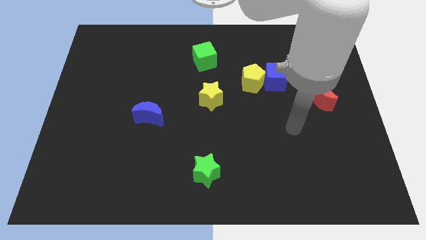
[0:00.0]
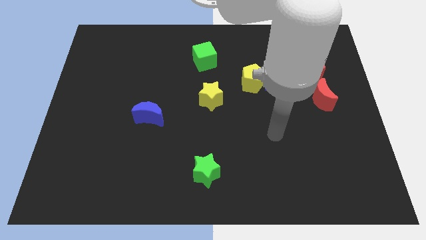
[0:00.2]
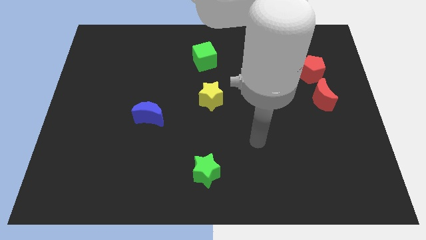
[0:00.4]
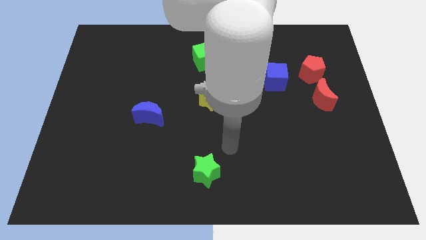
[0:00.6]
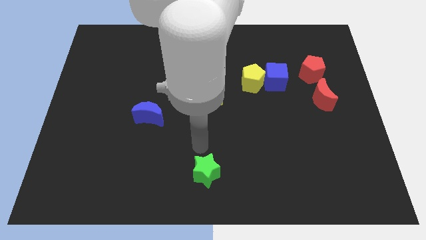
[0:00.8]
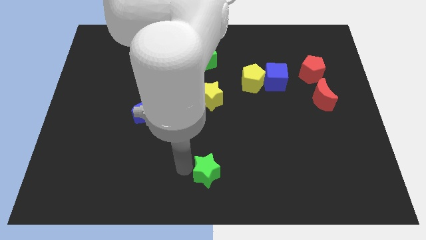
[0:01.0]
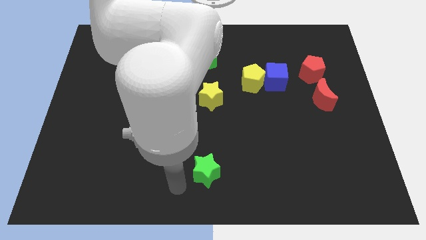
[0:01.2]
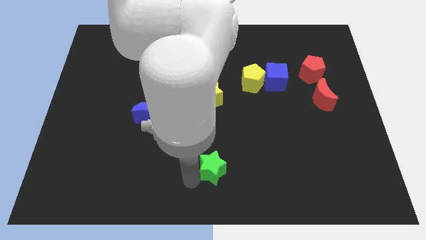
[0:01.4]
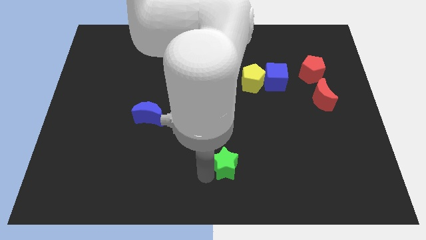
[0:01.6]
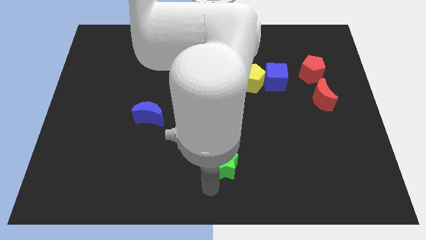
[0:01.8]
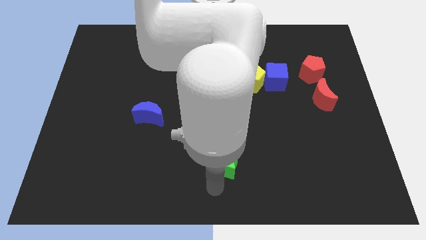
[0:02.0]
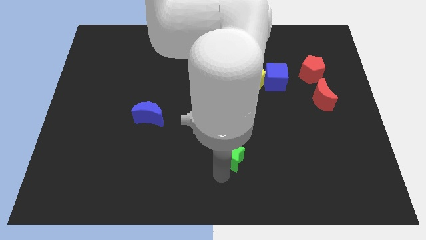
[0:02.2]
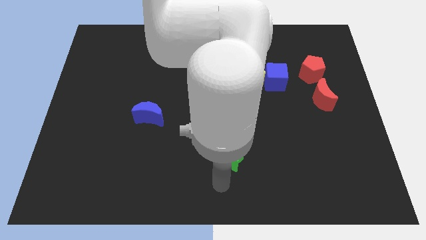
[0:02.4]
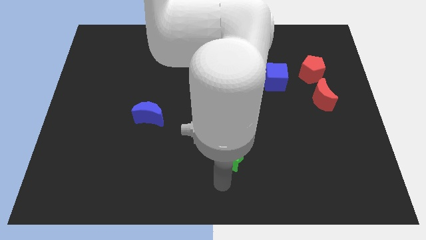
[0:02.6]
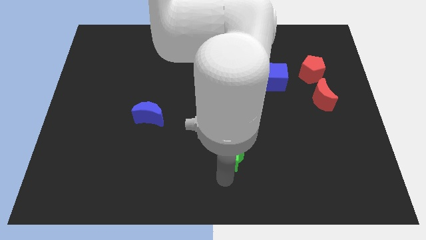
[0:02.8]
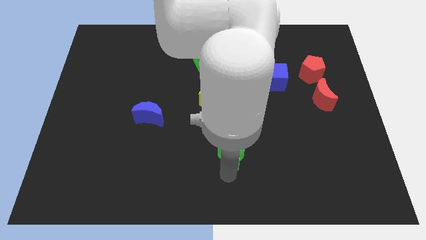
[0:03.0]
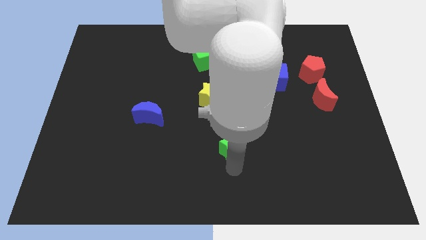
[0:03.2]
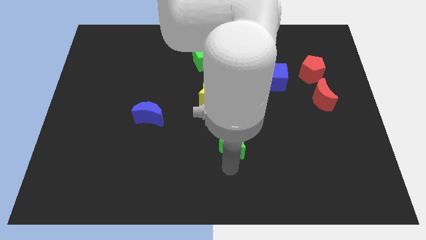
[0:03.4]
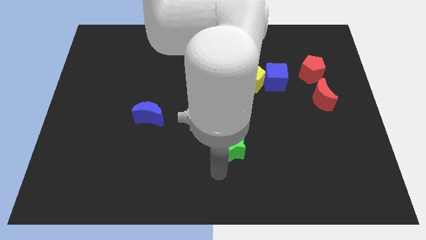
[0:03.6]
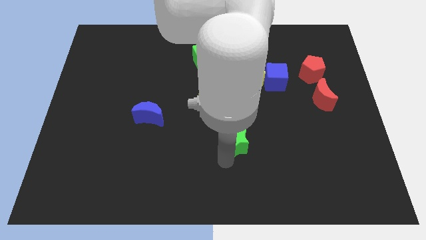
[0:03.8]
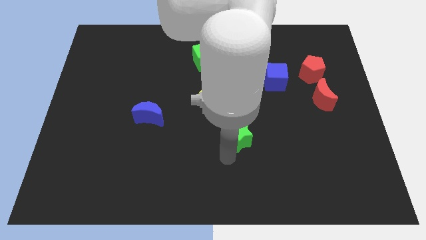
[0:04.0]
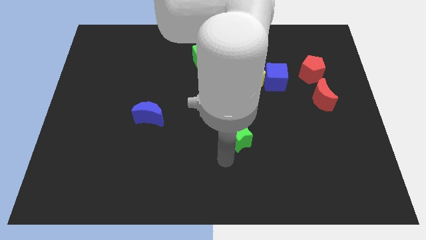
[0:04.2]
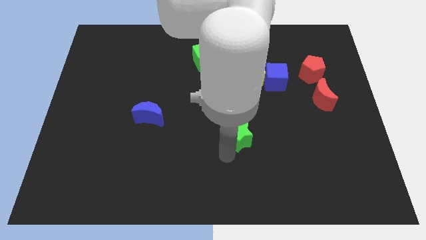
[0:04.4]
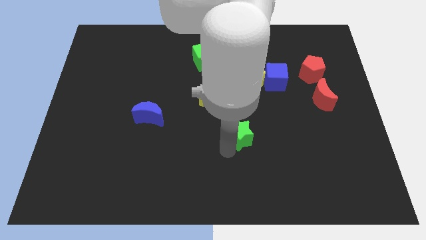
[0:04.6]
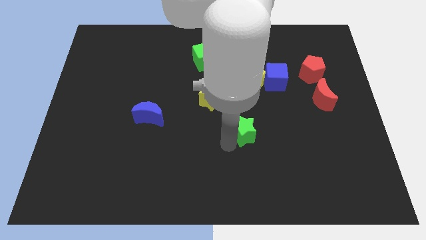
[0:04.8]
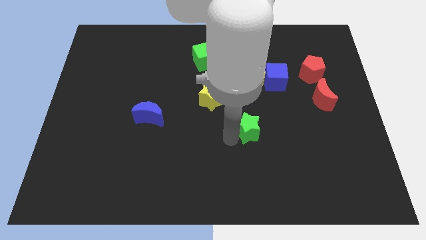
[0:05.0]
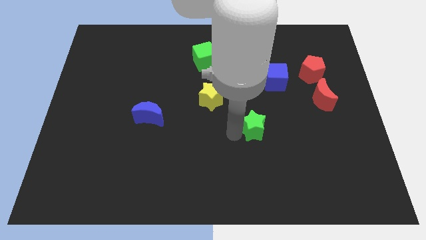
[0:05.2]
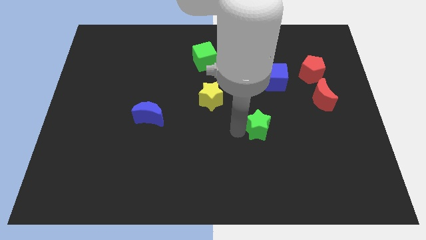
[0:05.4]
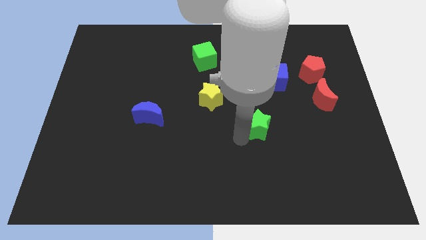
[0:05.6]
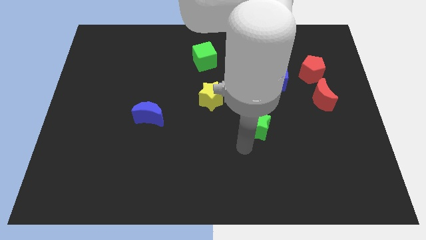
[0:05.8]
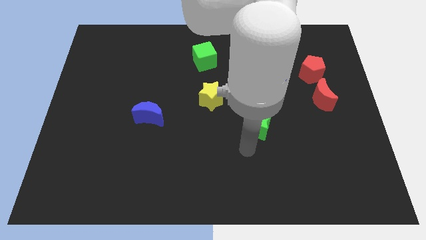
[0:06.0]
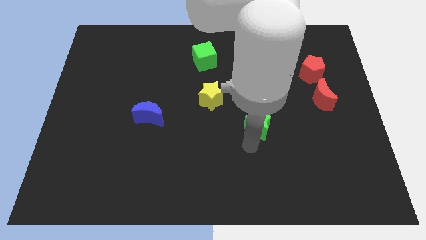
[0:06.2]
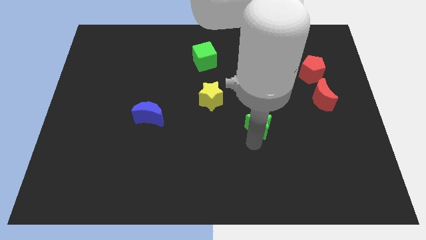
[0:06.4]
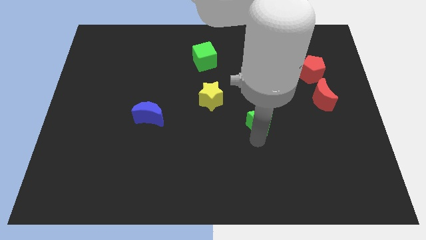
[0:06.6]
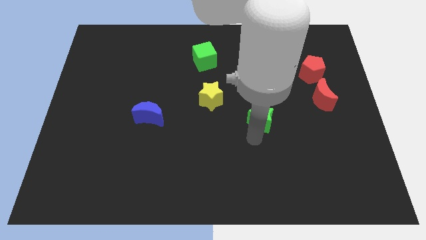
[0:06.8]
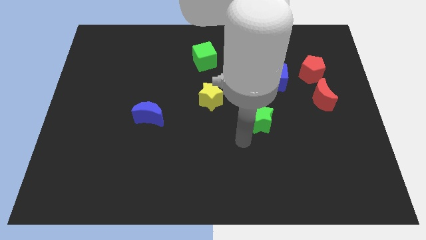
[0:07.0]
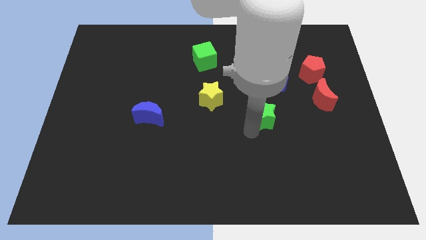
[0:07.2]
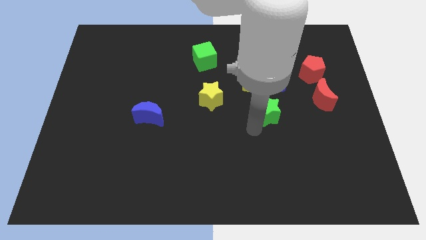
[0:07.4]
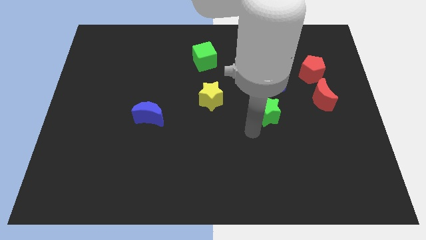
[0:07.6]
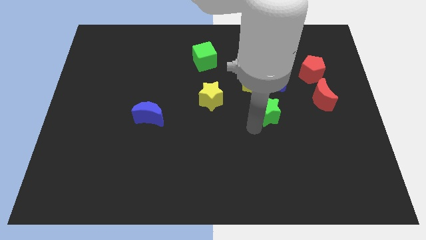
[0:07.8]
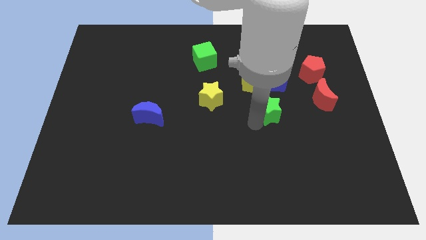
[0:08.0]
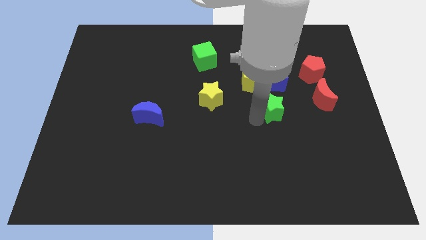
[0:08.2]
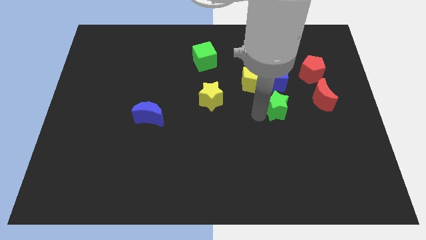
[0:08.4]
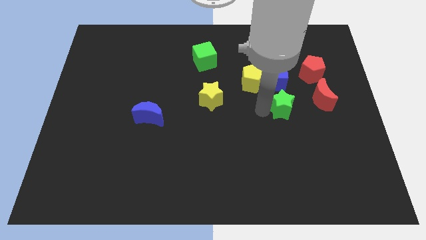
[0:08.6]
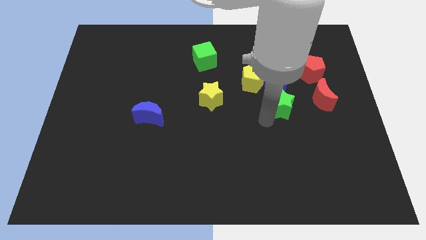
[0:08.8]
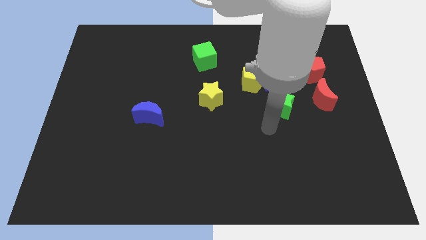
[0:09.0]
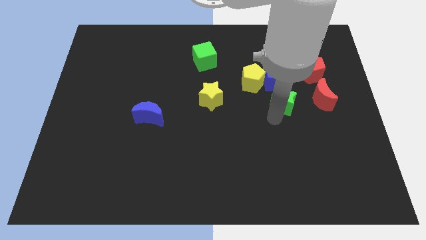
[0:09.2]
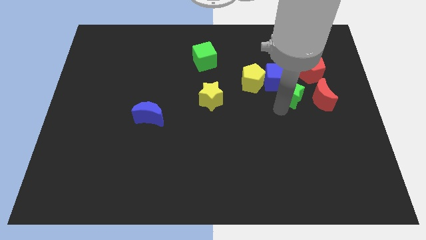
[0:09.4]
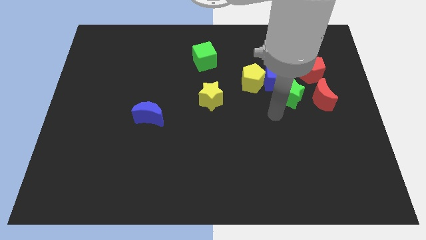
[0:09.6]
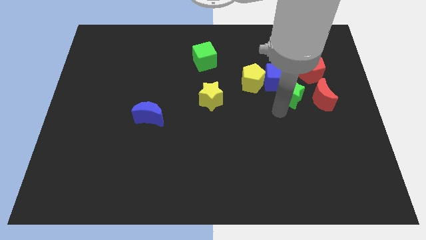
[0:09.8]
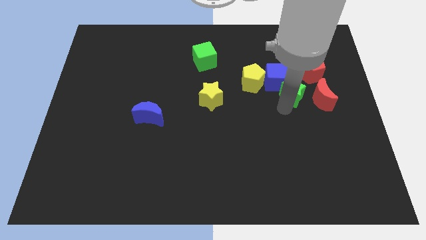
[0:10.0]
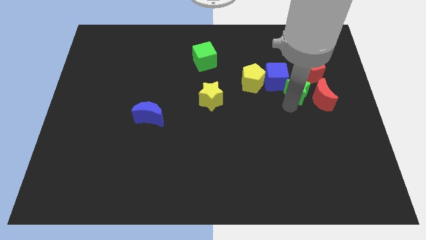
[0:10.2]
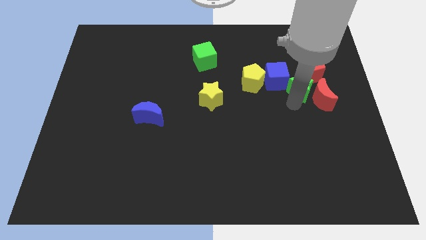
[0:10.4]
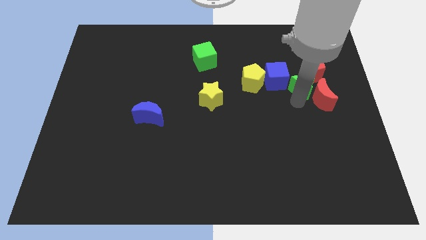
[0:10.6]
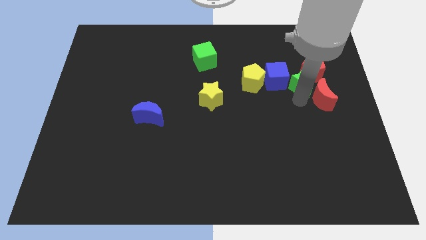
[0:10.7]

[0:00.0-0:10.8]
push the green star next to the red pentagon

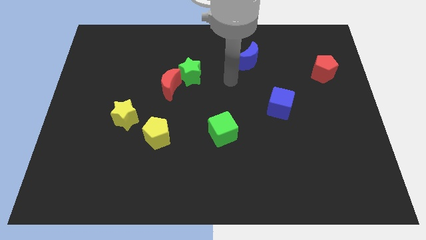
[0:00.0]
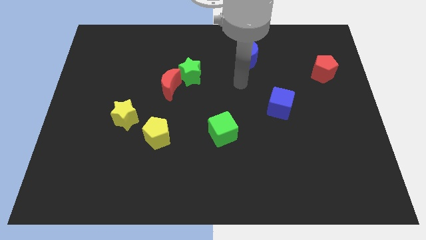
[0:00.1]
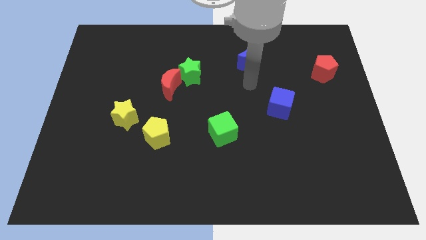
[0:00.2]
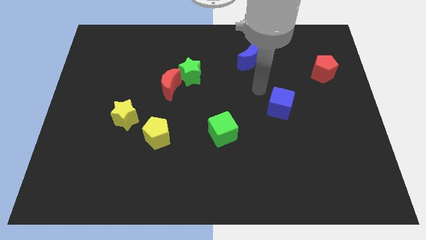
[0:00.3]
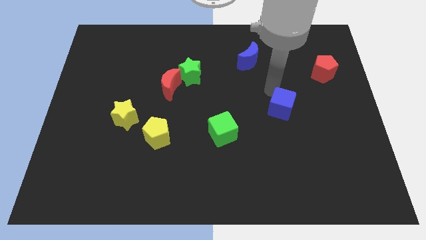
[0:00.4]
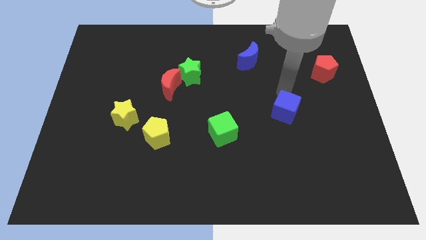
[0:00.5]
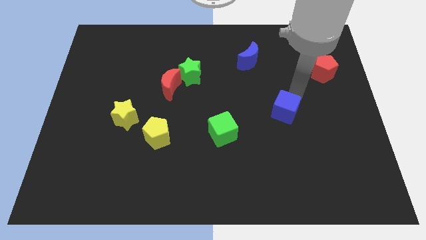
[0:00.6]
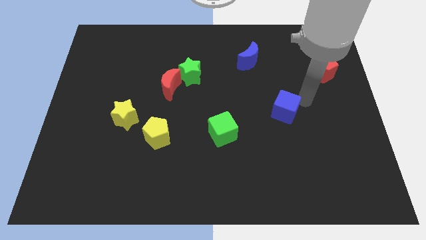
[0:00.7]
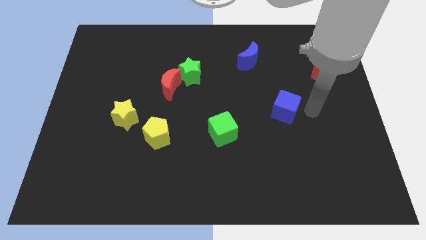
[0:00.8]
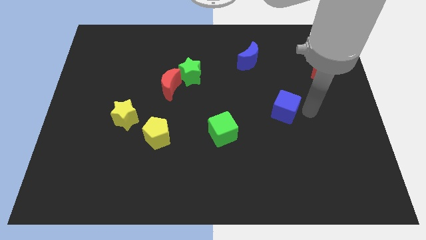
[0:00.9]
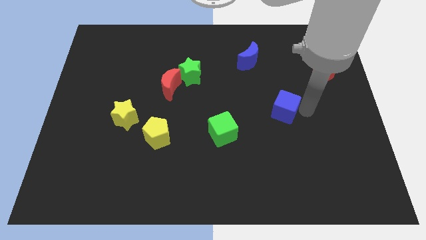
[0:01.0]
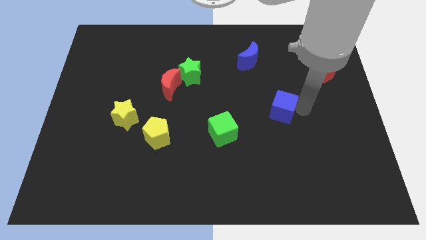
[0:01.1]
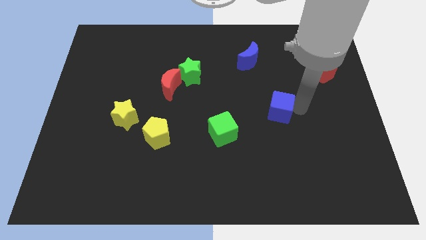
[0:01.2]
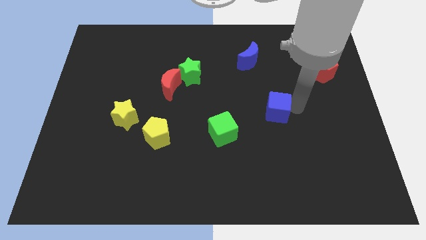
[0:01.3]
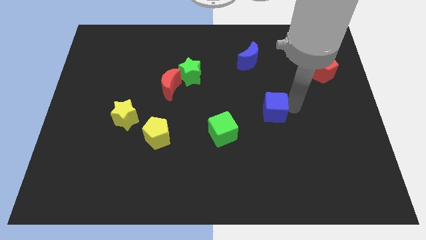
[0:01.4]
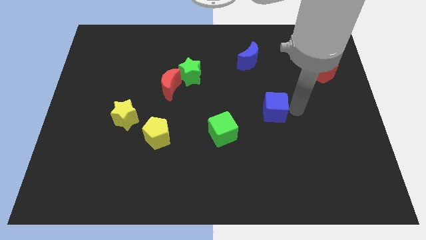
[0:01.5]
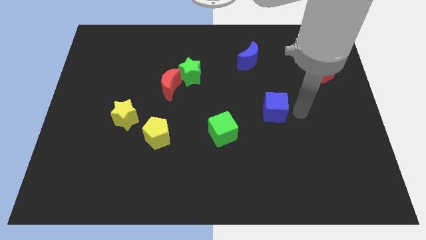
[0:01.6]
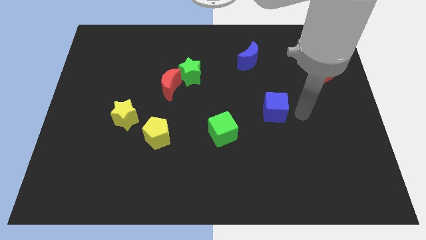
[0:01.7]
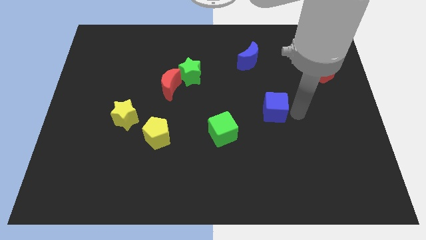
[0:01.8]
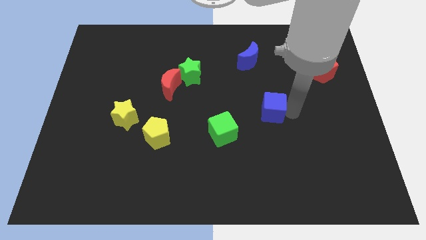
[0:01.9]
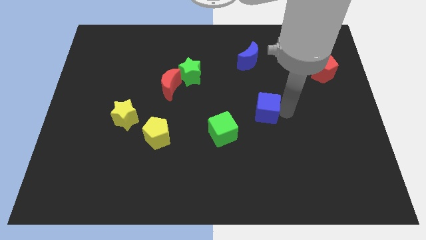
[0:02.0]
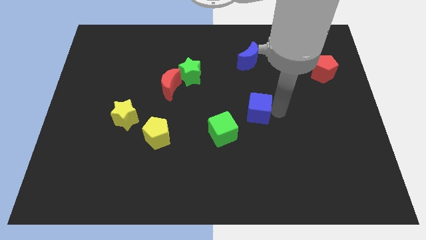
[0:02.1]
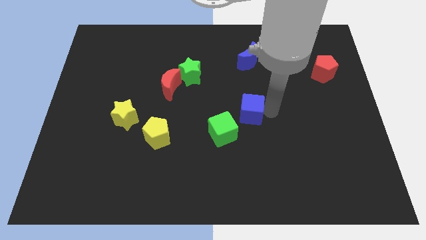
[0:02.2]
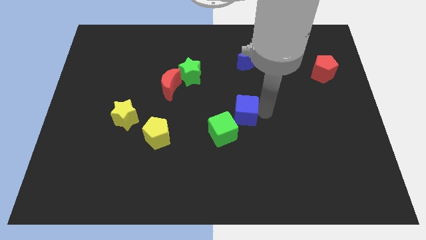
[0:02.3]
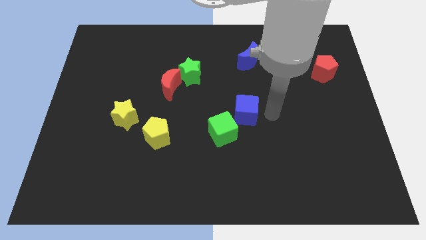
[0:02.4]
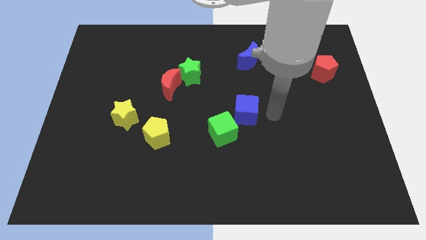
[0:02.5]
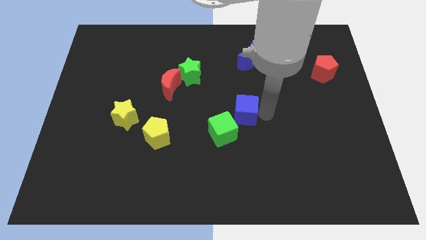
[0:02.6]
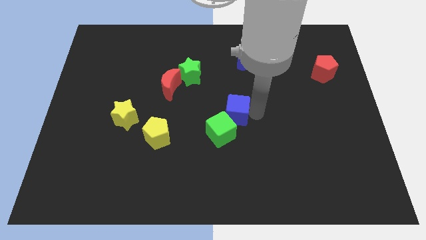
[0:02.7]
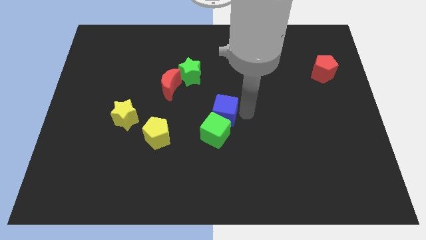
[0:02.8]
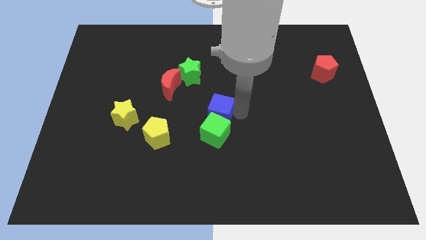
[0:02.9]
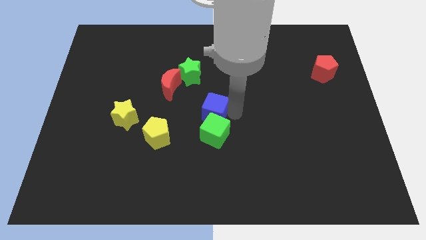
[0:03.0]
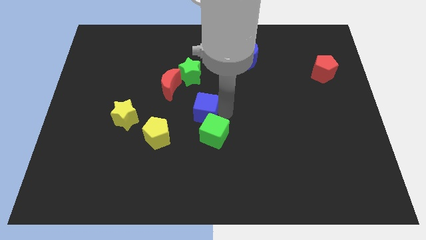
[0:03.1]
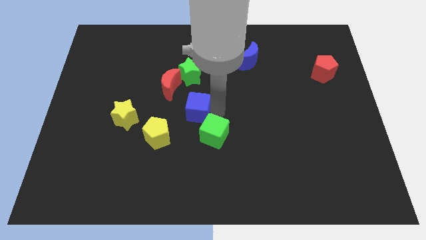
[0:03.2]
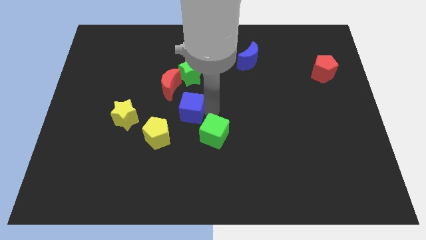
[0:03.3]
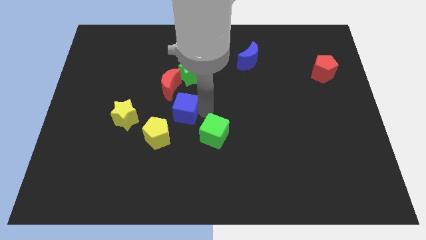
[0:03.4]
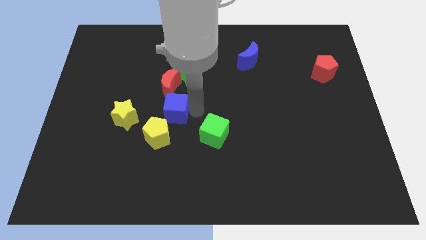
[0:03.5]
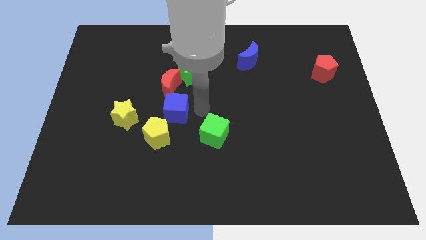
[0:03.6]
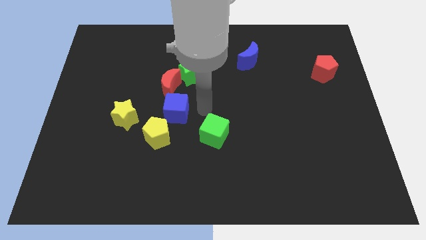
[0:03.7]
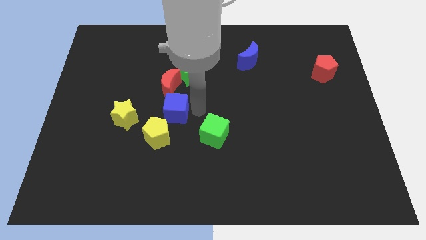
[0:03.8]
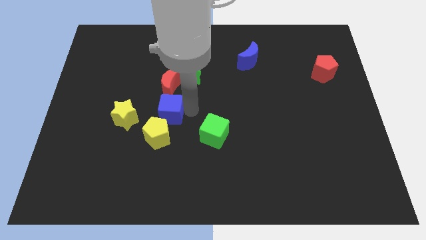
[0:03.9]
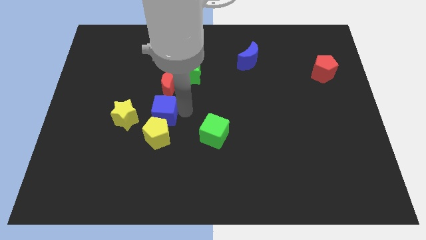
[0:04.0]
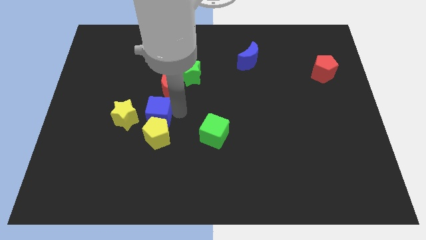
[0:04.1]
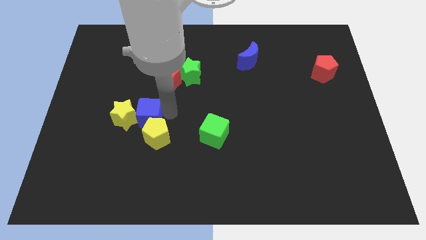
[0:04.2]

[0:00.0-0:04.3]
move the blue cube to the yellow star
